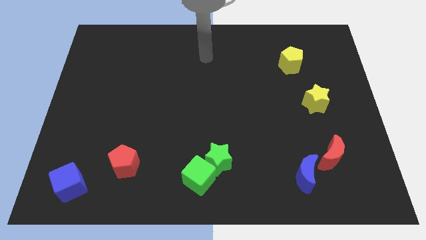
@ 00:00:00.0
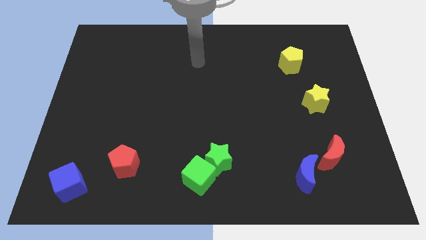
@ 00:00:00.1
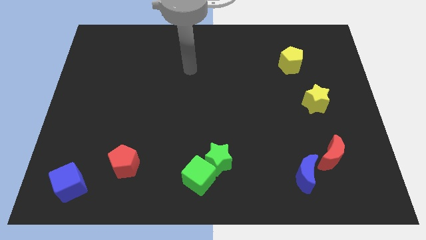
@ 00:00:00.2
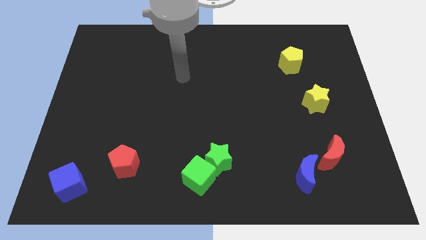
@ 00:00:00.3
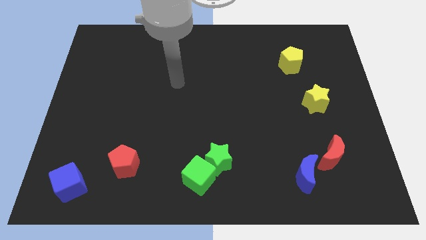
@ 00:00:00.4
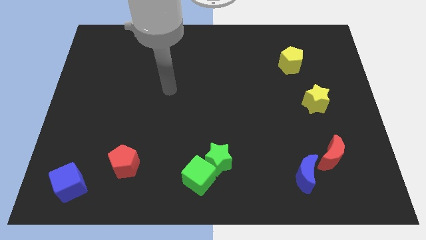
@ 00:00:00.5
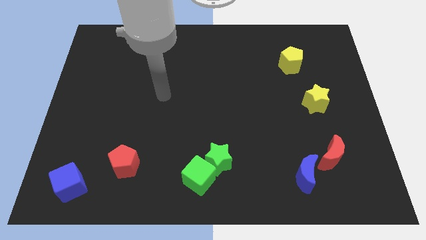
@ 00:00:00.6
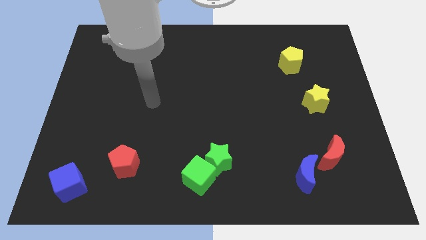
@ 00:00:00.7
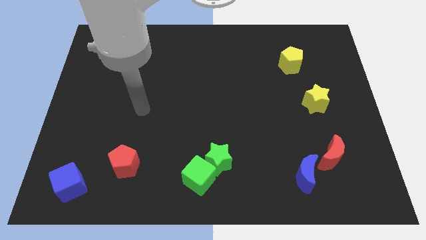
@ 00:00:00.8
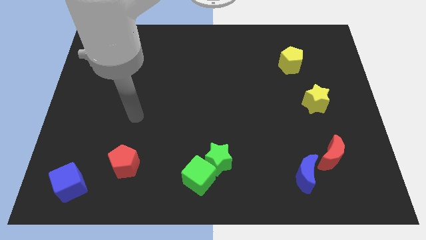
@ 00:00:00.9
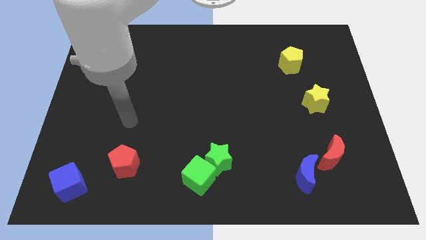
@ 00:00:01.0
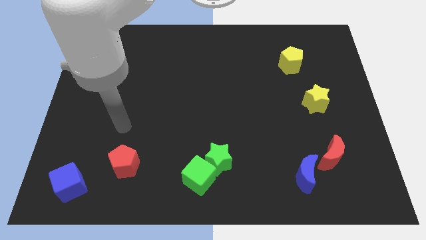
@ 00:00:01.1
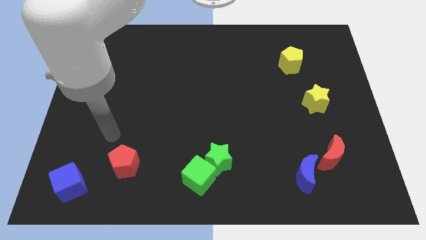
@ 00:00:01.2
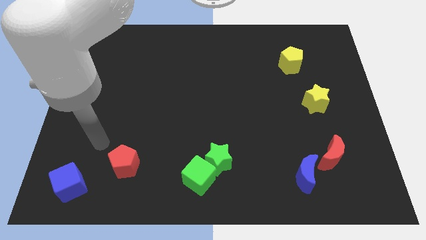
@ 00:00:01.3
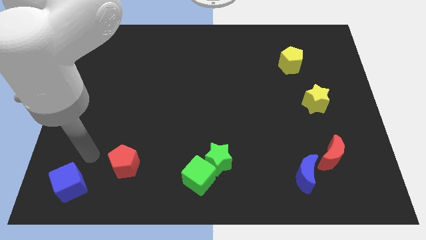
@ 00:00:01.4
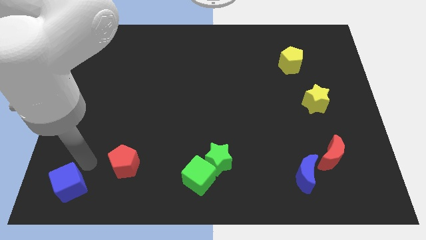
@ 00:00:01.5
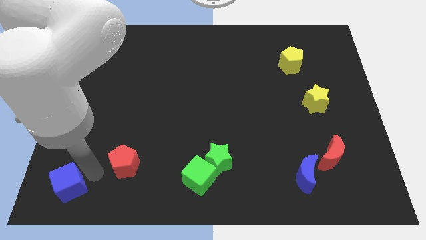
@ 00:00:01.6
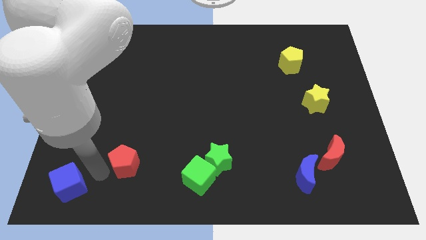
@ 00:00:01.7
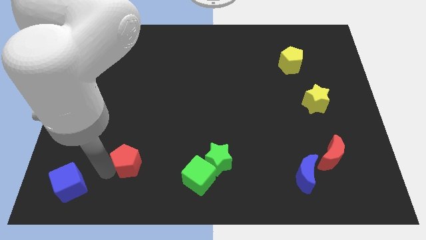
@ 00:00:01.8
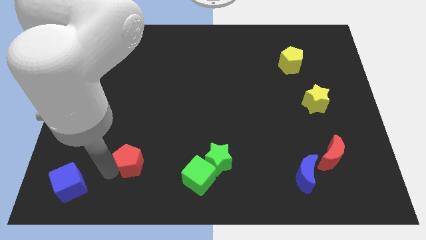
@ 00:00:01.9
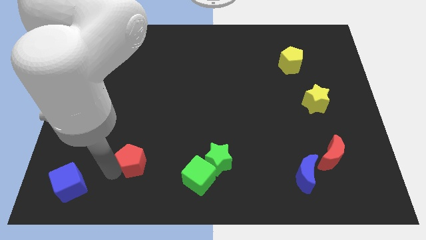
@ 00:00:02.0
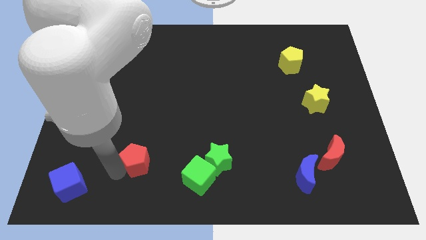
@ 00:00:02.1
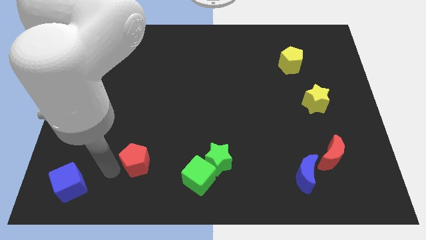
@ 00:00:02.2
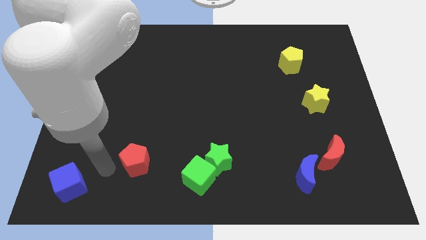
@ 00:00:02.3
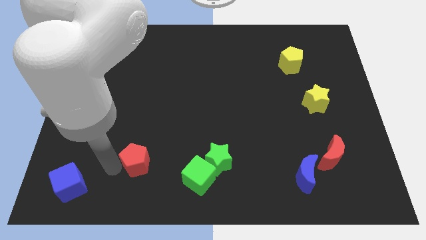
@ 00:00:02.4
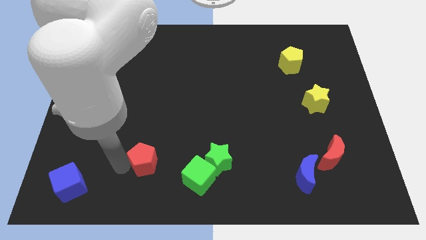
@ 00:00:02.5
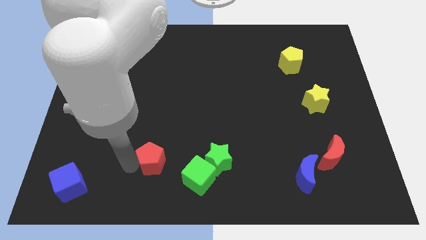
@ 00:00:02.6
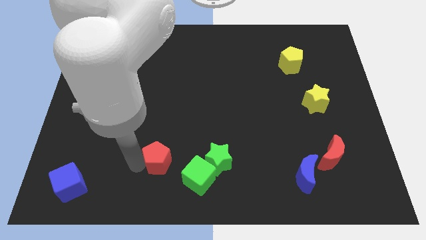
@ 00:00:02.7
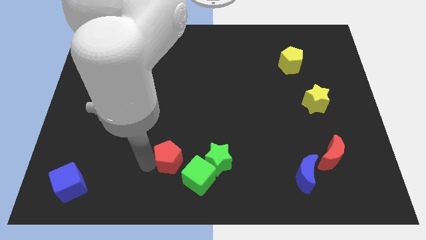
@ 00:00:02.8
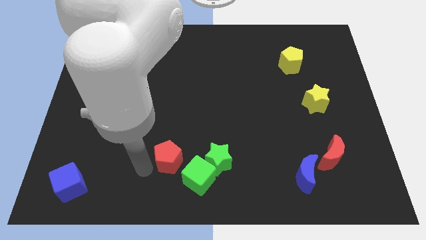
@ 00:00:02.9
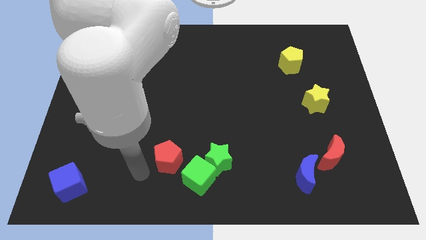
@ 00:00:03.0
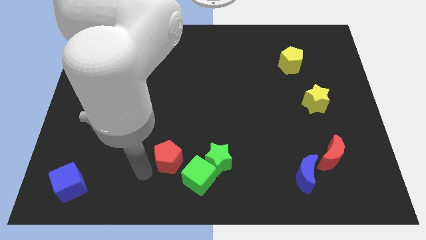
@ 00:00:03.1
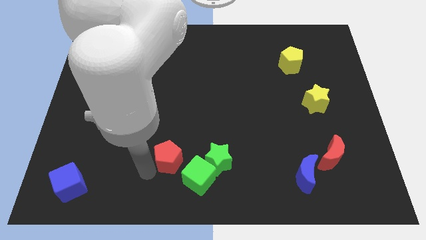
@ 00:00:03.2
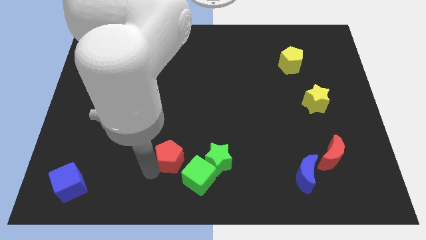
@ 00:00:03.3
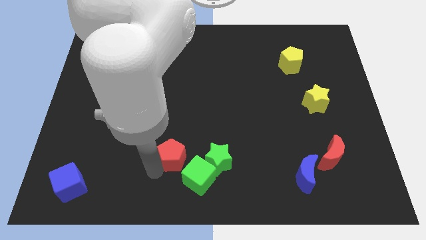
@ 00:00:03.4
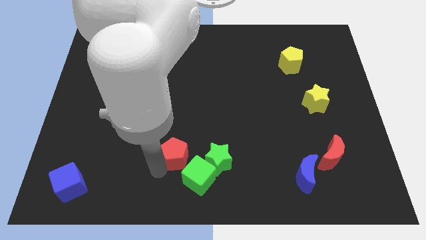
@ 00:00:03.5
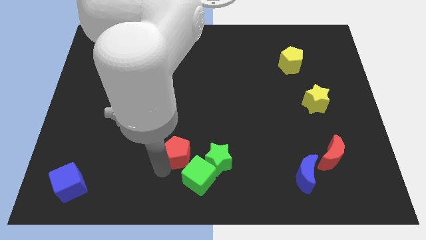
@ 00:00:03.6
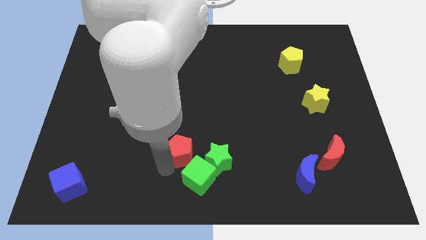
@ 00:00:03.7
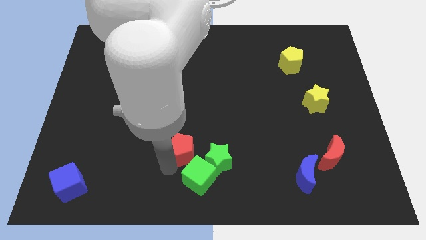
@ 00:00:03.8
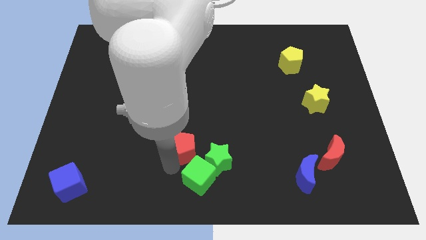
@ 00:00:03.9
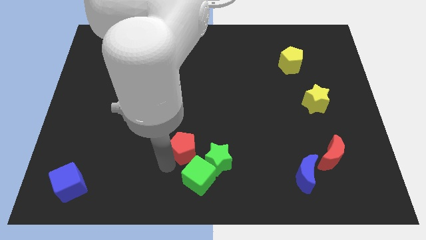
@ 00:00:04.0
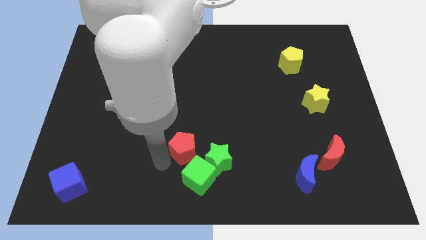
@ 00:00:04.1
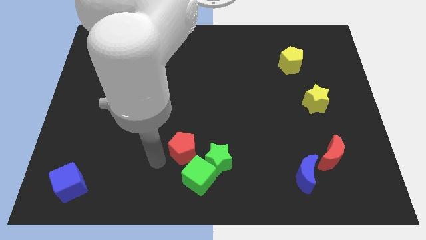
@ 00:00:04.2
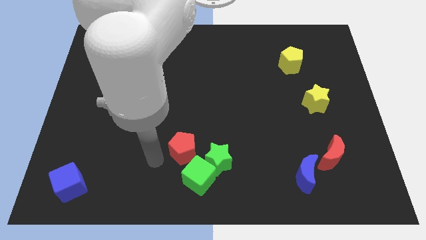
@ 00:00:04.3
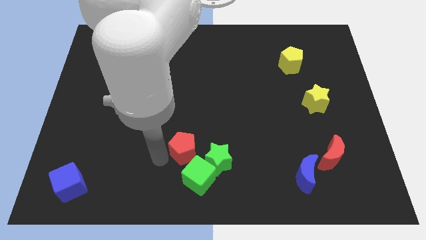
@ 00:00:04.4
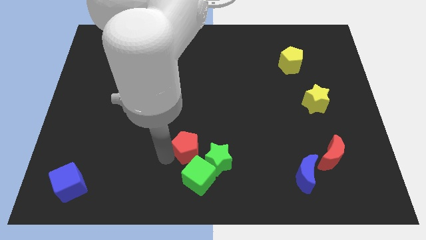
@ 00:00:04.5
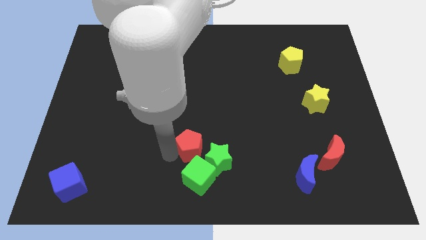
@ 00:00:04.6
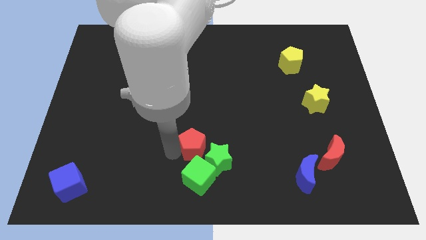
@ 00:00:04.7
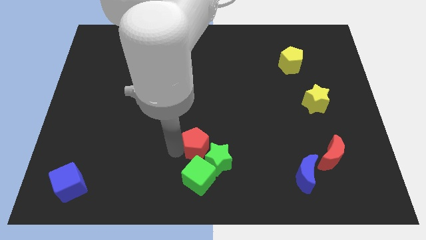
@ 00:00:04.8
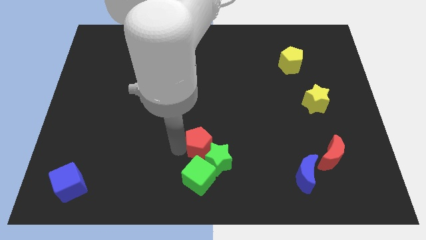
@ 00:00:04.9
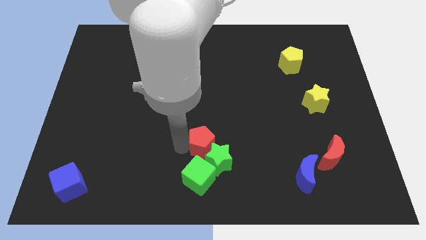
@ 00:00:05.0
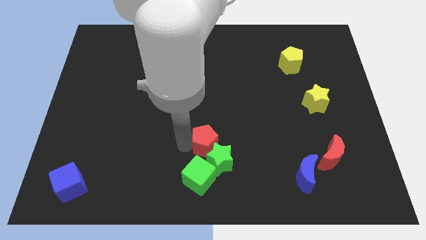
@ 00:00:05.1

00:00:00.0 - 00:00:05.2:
put the red pentagon to the top right side of the green cube

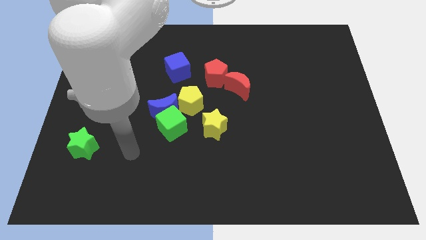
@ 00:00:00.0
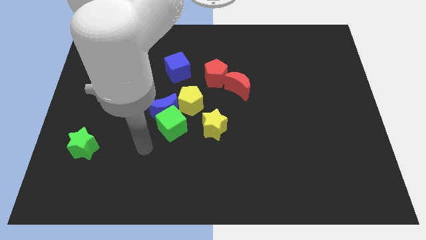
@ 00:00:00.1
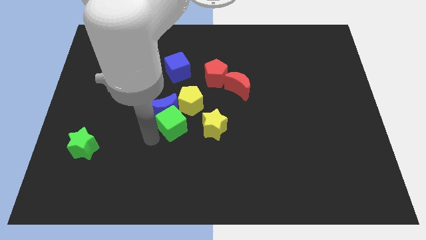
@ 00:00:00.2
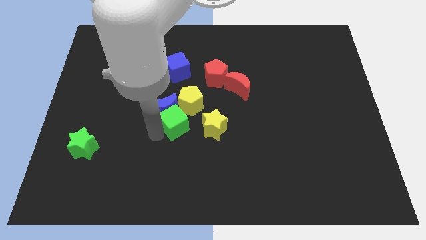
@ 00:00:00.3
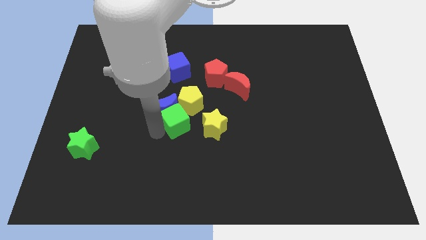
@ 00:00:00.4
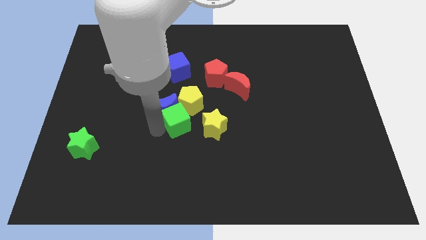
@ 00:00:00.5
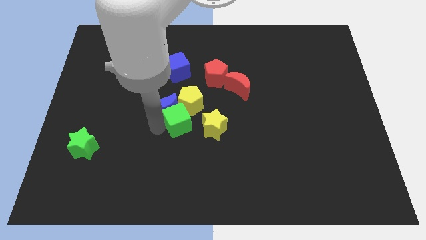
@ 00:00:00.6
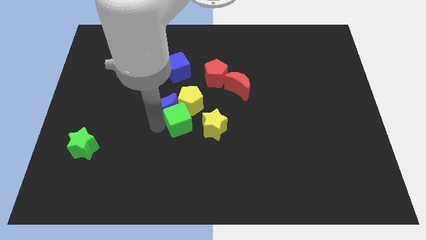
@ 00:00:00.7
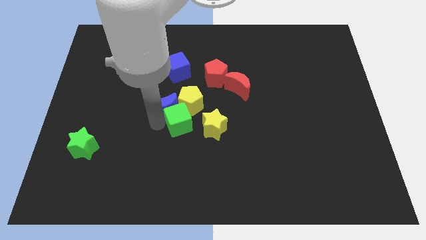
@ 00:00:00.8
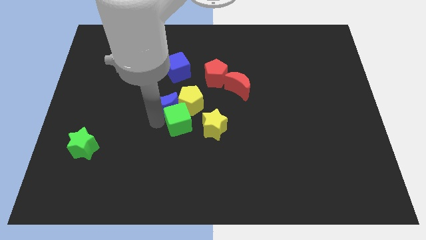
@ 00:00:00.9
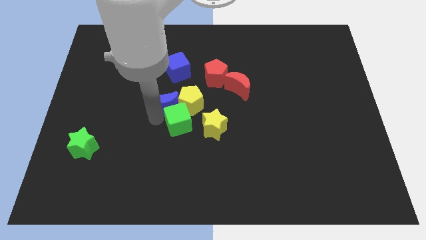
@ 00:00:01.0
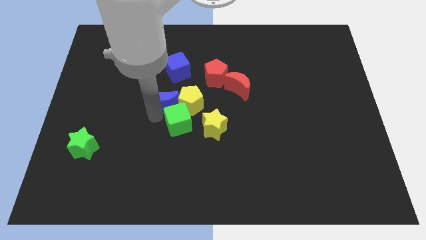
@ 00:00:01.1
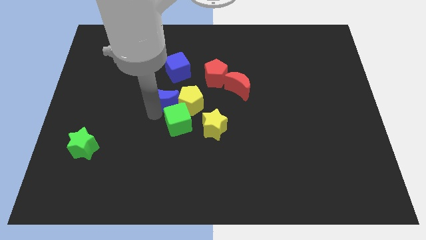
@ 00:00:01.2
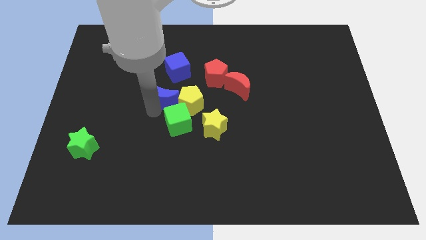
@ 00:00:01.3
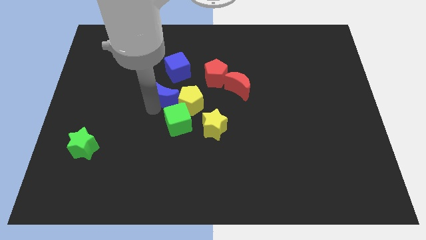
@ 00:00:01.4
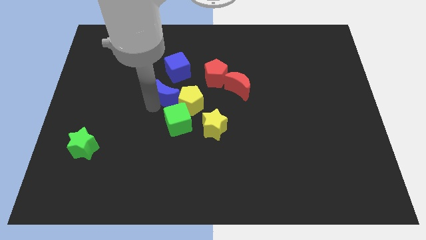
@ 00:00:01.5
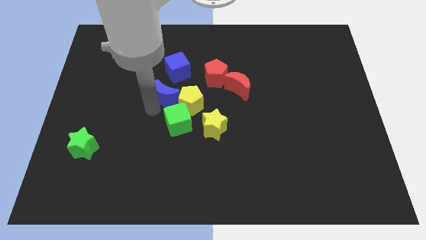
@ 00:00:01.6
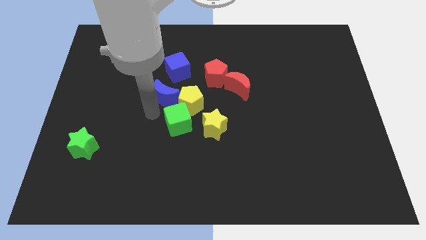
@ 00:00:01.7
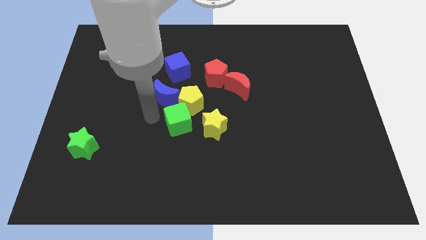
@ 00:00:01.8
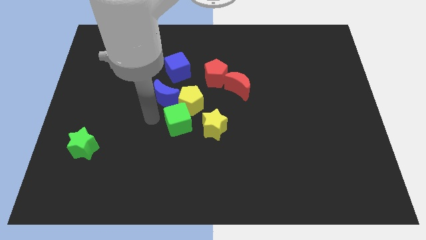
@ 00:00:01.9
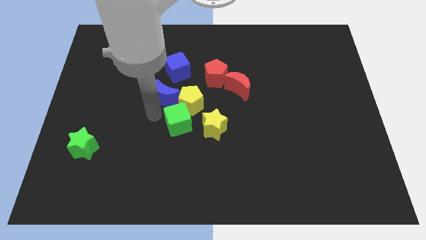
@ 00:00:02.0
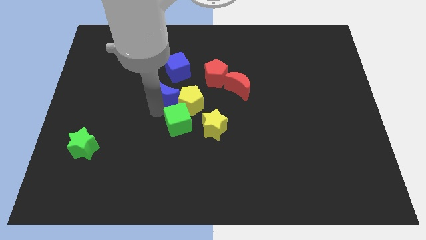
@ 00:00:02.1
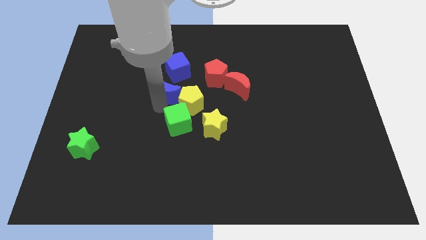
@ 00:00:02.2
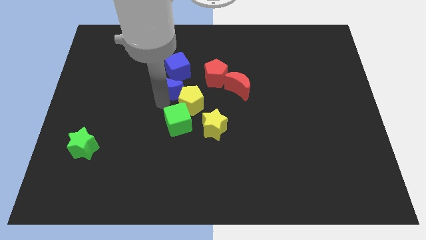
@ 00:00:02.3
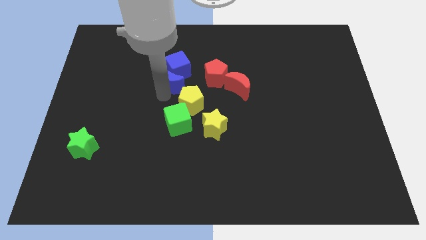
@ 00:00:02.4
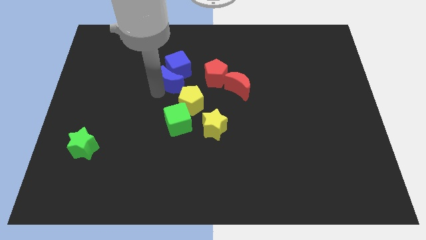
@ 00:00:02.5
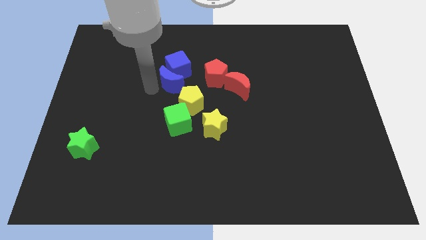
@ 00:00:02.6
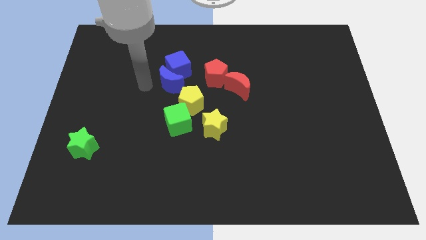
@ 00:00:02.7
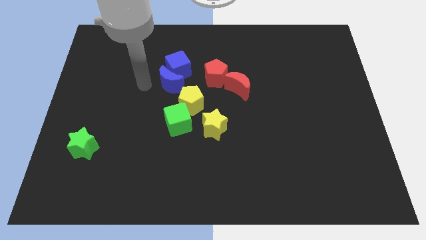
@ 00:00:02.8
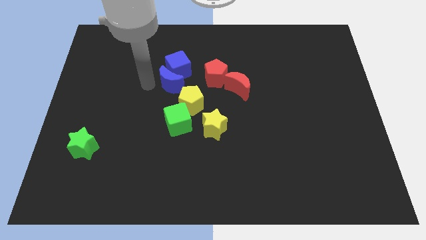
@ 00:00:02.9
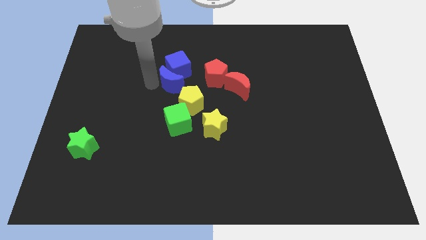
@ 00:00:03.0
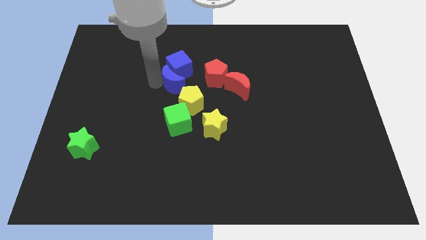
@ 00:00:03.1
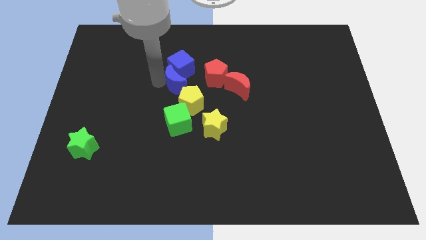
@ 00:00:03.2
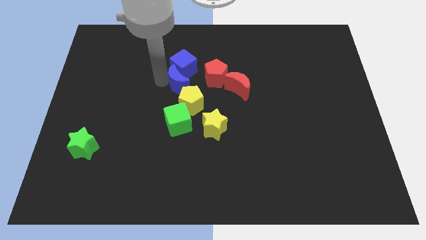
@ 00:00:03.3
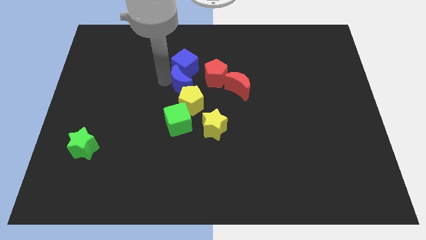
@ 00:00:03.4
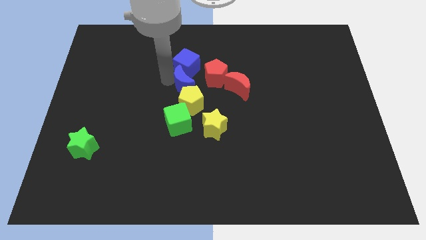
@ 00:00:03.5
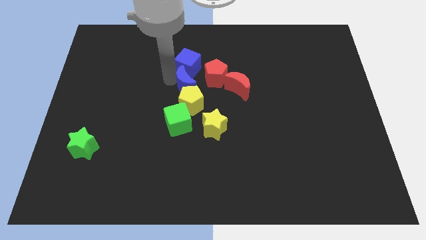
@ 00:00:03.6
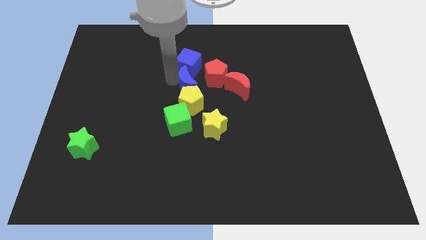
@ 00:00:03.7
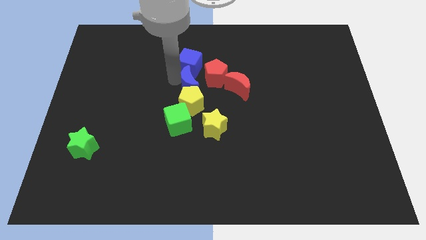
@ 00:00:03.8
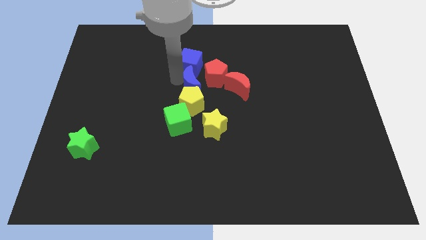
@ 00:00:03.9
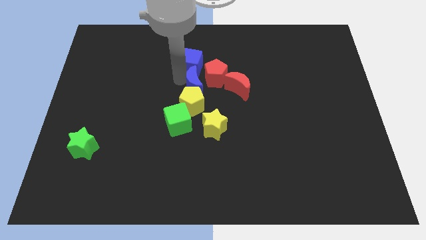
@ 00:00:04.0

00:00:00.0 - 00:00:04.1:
slide the blue moon to the top side of the yellow star
